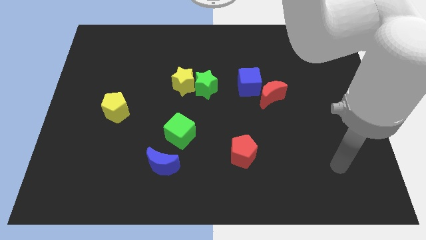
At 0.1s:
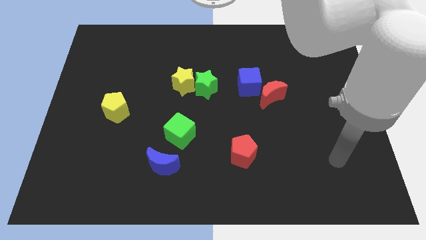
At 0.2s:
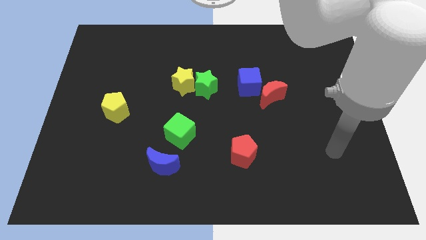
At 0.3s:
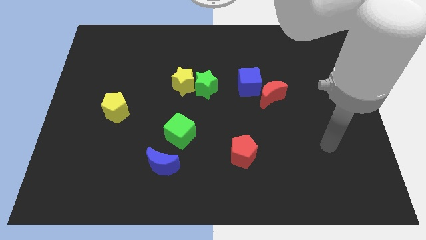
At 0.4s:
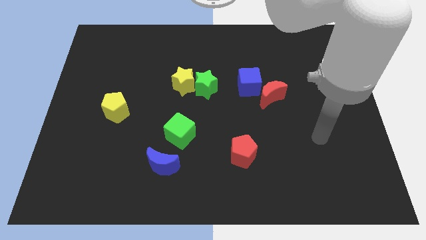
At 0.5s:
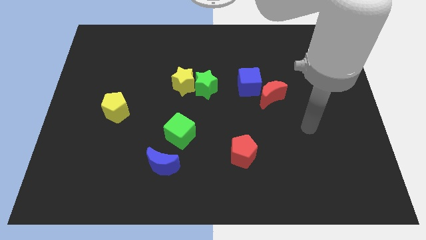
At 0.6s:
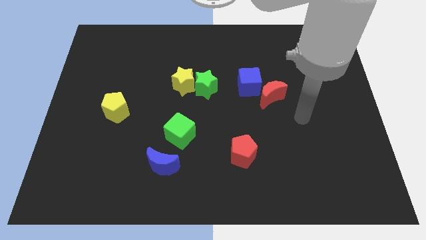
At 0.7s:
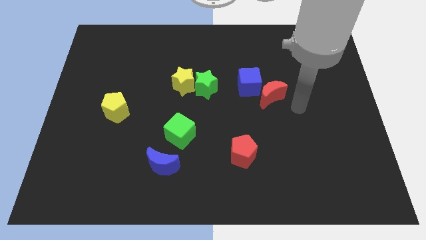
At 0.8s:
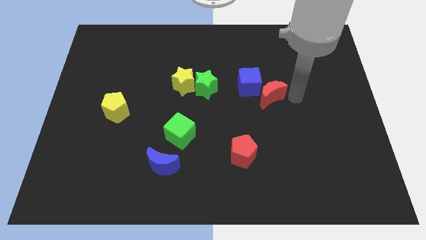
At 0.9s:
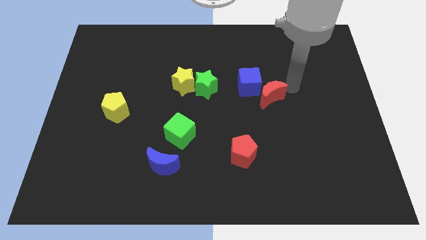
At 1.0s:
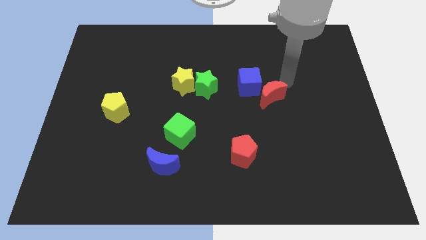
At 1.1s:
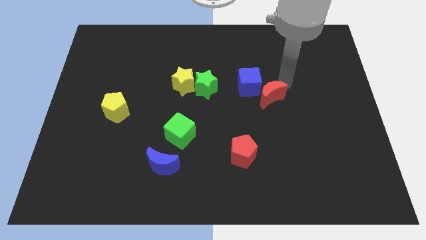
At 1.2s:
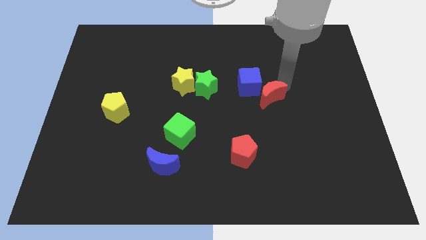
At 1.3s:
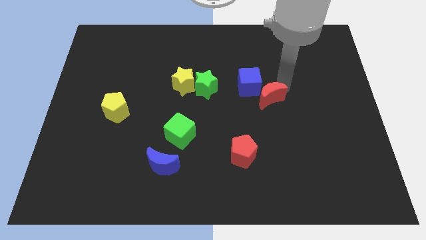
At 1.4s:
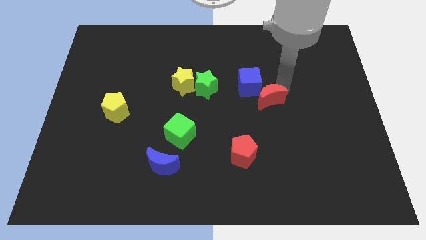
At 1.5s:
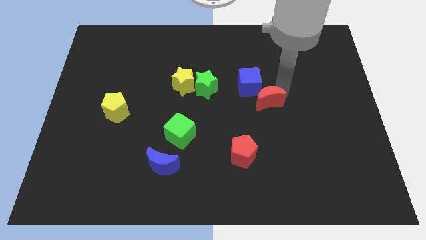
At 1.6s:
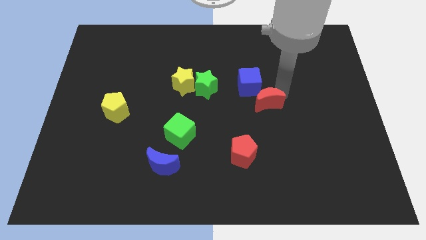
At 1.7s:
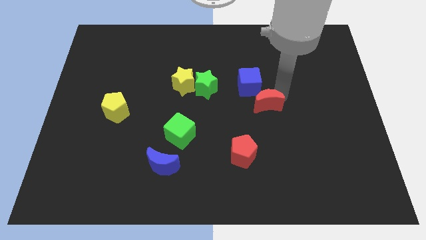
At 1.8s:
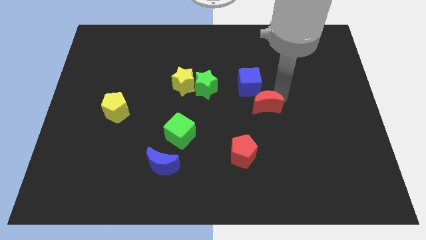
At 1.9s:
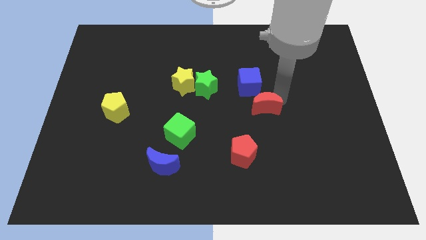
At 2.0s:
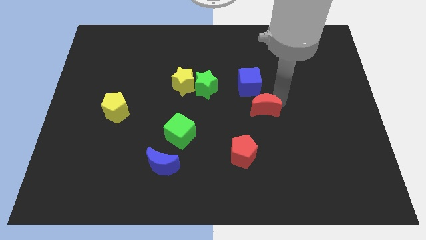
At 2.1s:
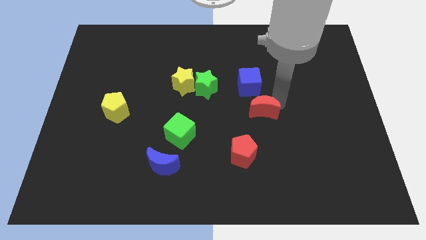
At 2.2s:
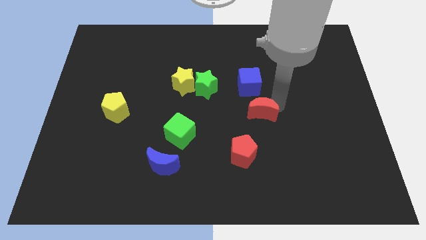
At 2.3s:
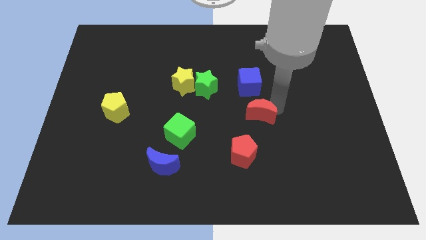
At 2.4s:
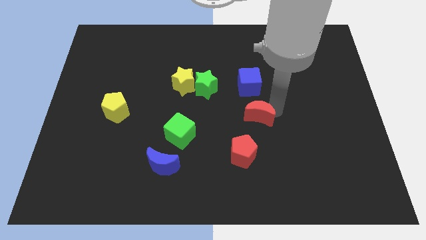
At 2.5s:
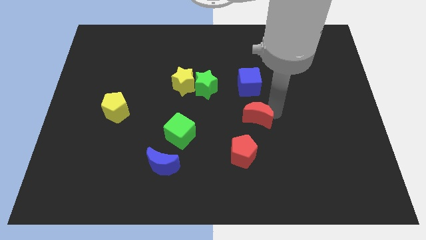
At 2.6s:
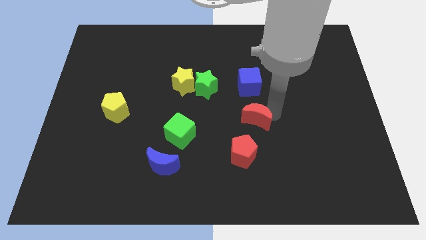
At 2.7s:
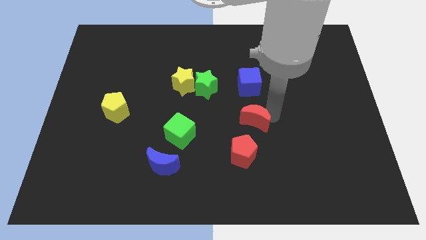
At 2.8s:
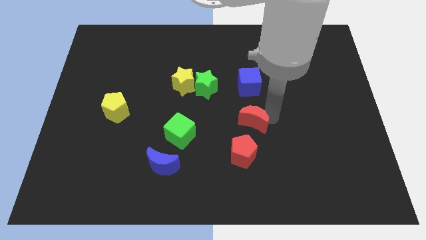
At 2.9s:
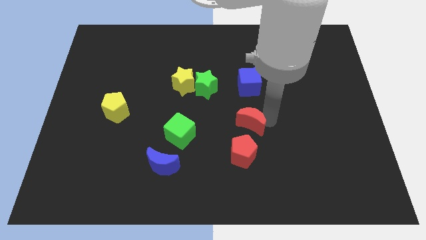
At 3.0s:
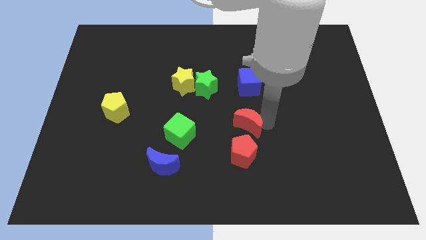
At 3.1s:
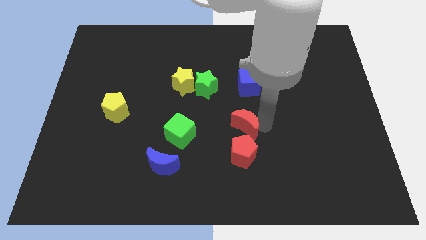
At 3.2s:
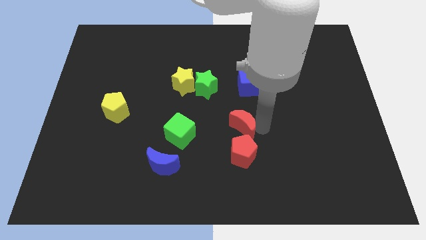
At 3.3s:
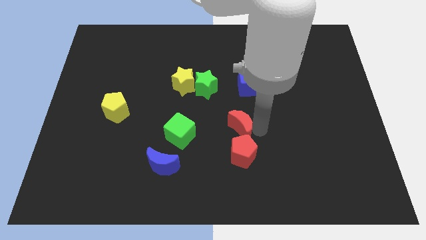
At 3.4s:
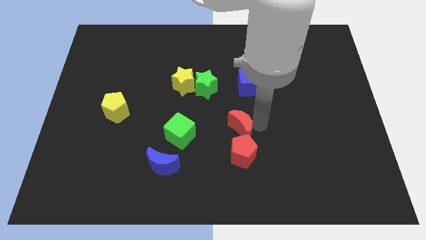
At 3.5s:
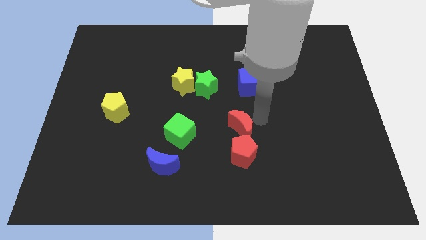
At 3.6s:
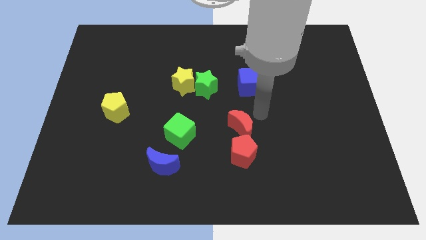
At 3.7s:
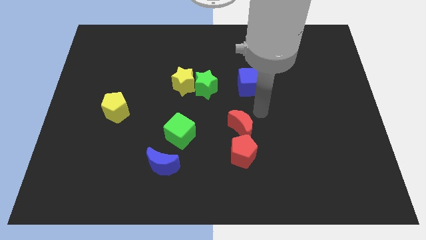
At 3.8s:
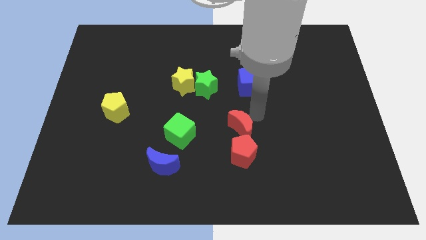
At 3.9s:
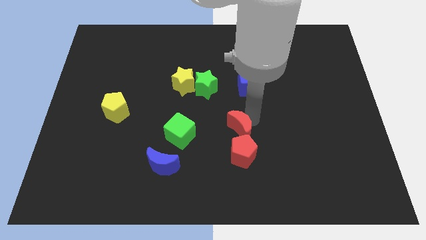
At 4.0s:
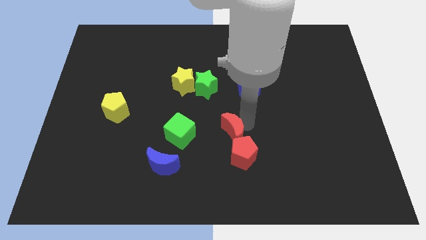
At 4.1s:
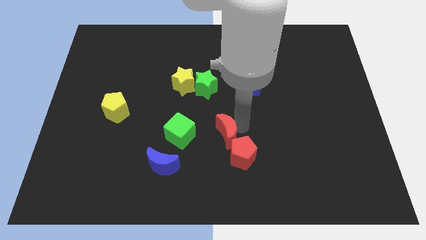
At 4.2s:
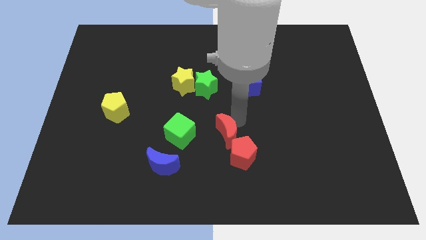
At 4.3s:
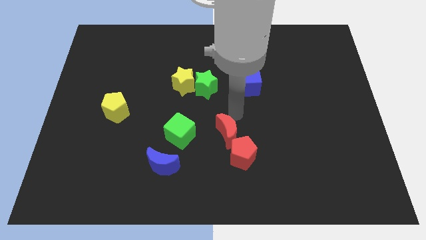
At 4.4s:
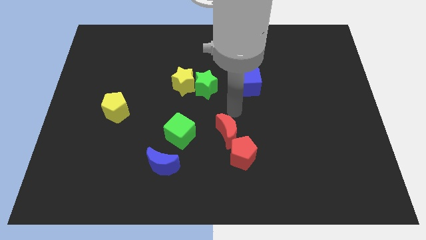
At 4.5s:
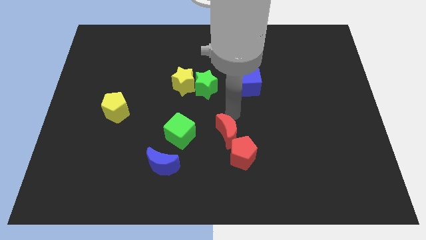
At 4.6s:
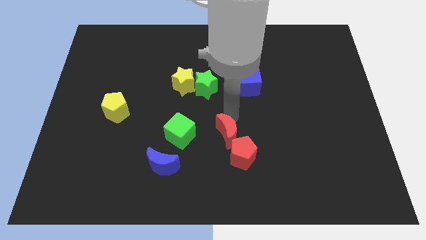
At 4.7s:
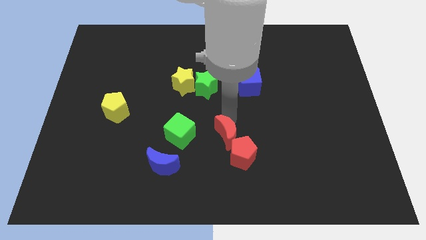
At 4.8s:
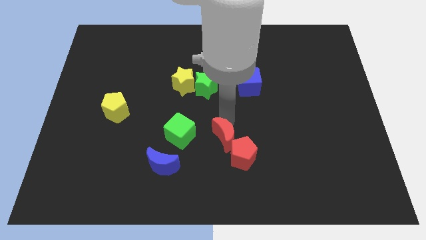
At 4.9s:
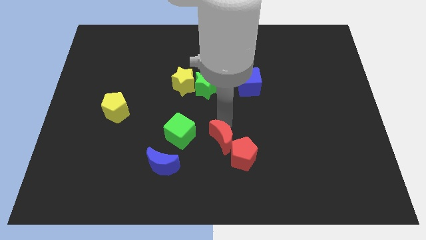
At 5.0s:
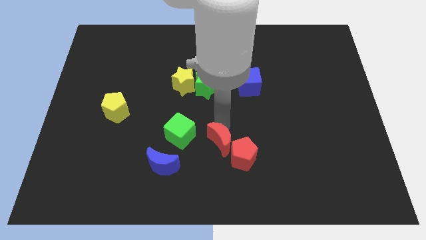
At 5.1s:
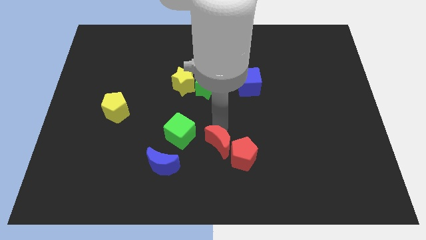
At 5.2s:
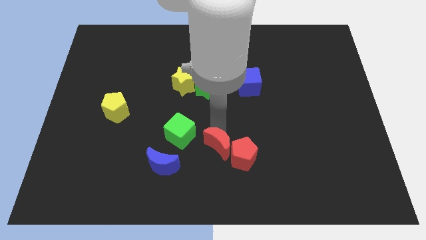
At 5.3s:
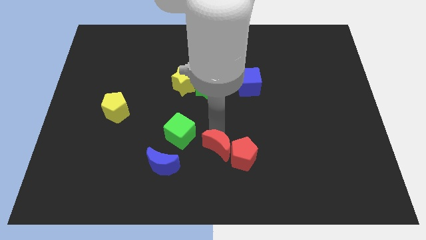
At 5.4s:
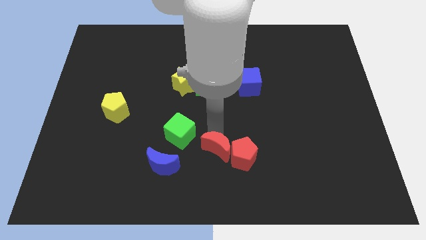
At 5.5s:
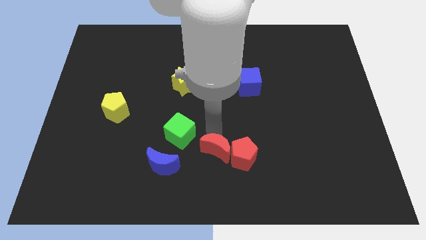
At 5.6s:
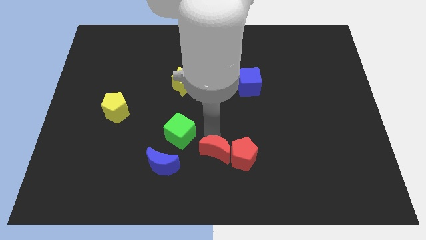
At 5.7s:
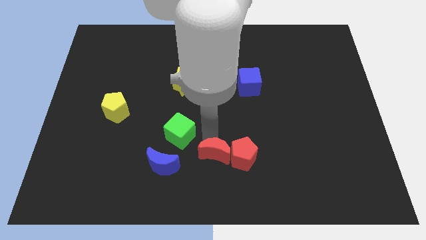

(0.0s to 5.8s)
put the red moon to the bottom side
